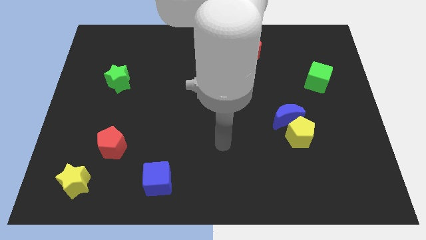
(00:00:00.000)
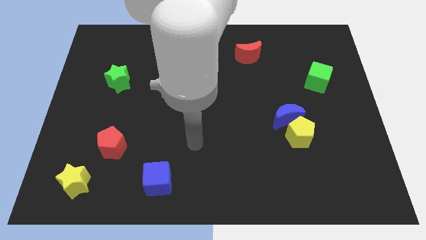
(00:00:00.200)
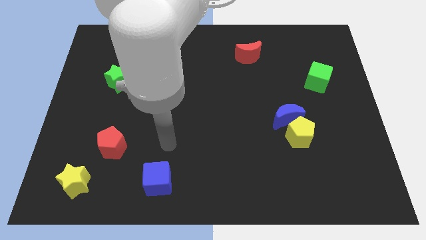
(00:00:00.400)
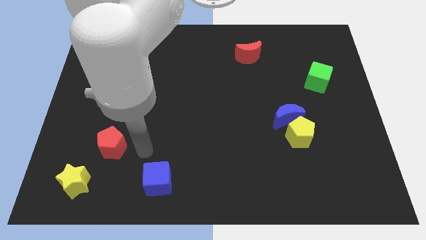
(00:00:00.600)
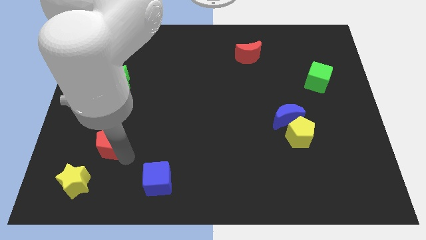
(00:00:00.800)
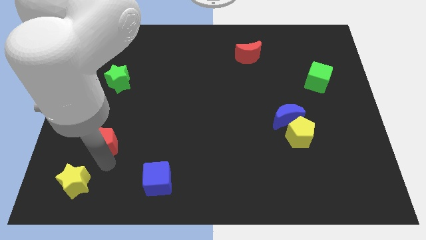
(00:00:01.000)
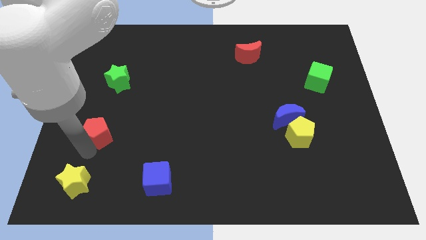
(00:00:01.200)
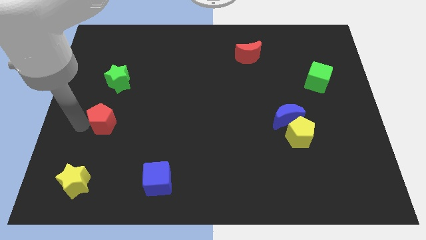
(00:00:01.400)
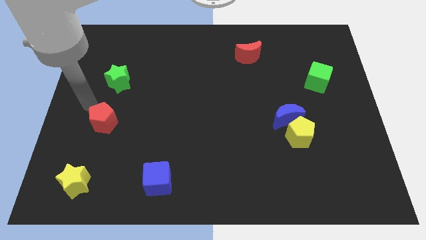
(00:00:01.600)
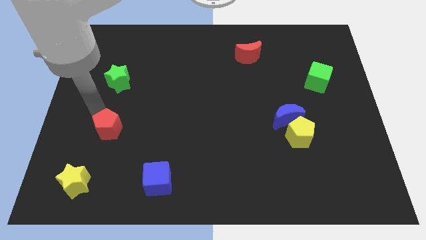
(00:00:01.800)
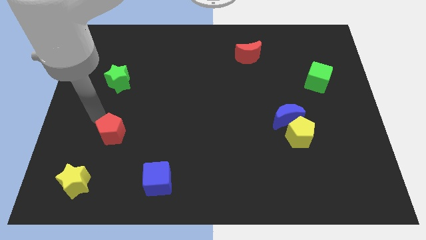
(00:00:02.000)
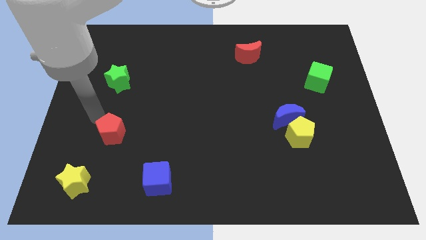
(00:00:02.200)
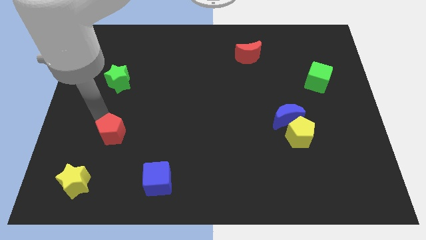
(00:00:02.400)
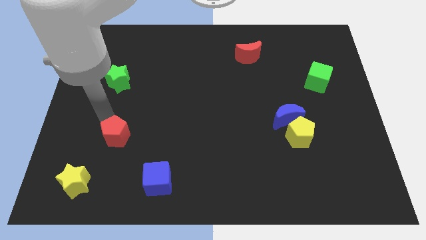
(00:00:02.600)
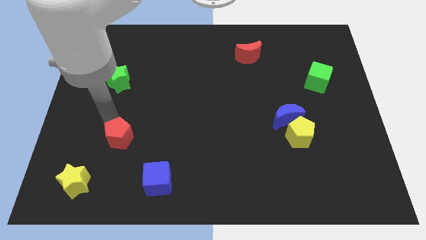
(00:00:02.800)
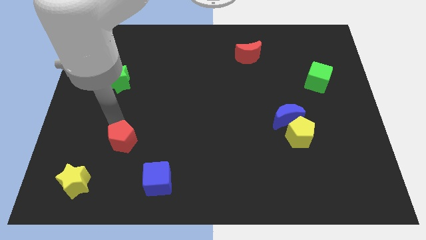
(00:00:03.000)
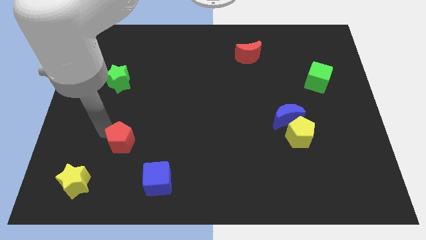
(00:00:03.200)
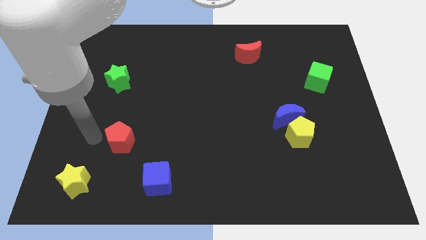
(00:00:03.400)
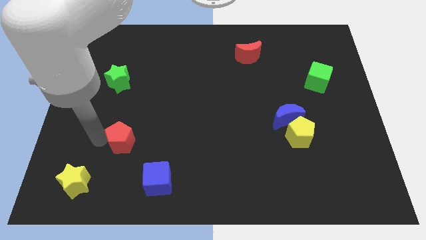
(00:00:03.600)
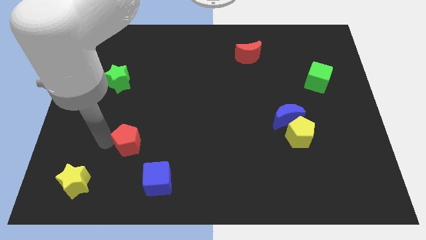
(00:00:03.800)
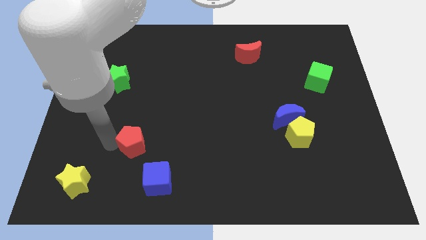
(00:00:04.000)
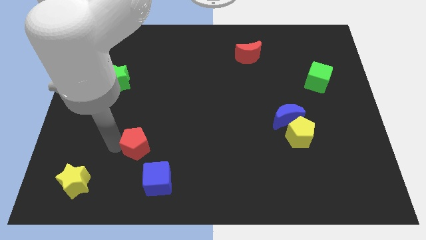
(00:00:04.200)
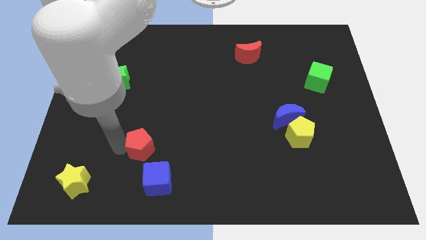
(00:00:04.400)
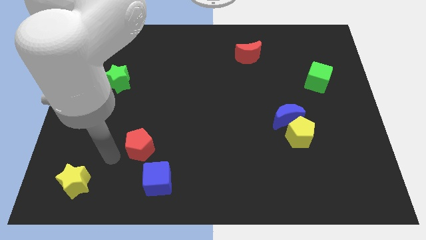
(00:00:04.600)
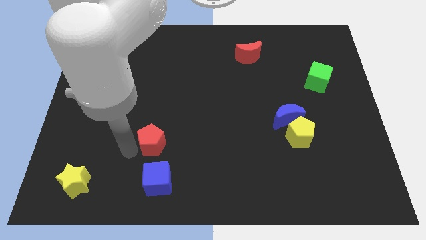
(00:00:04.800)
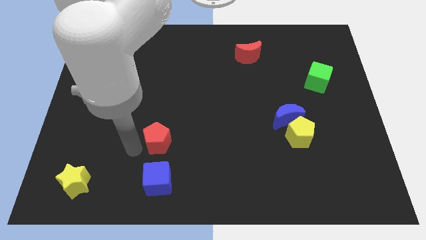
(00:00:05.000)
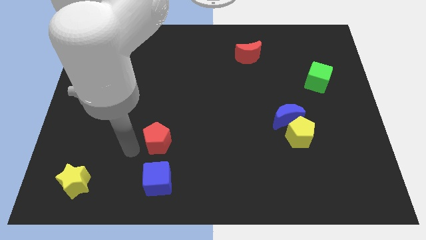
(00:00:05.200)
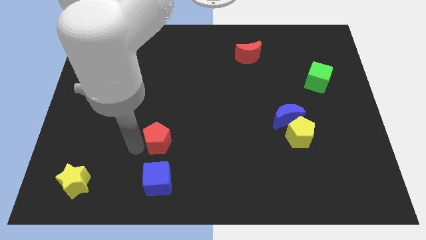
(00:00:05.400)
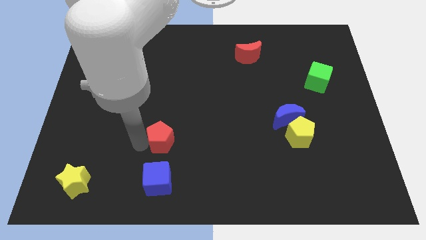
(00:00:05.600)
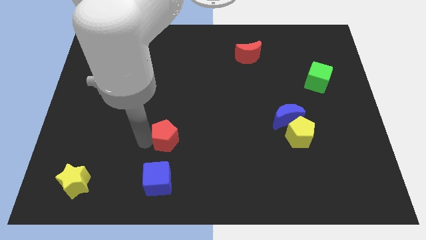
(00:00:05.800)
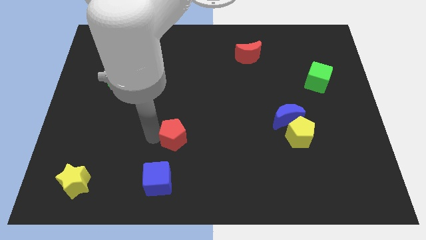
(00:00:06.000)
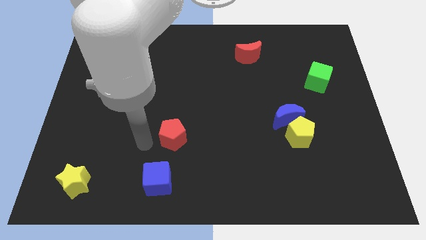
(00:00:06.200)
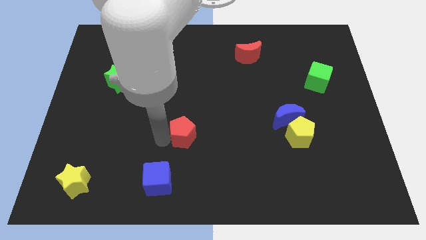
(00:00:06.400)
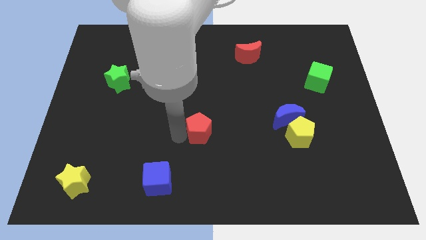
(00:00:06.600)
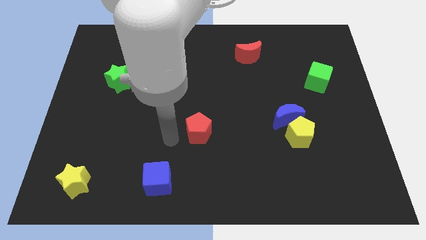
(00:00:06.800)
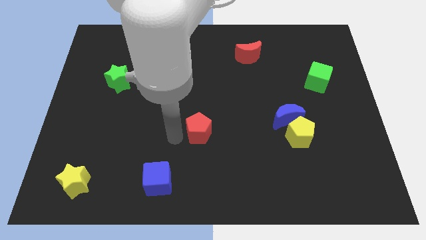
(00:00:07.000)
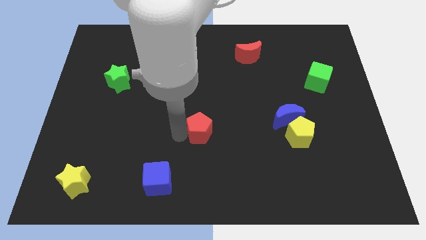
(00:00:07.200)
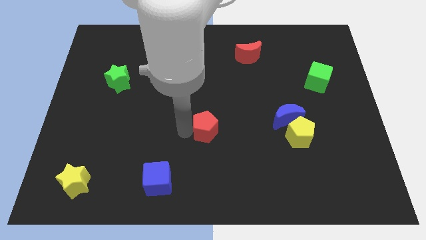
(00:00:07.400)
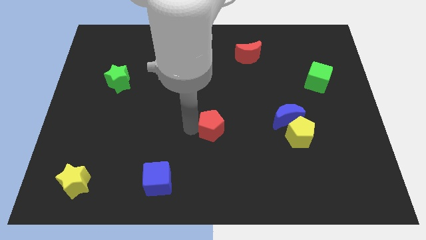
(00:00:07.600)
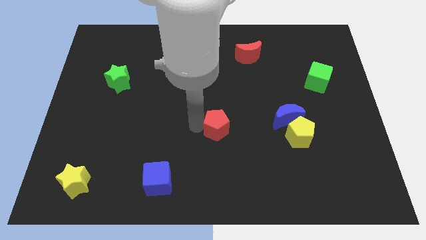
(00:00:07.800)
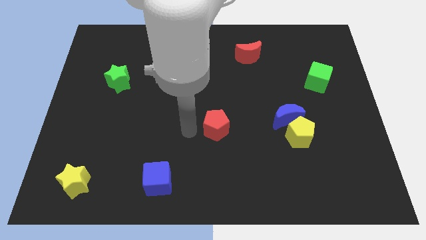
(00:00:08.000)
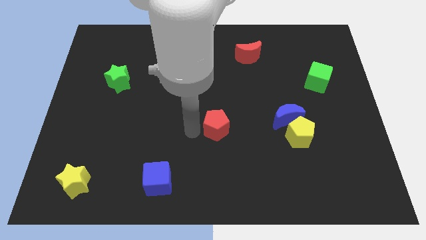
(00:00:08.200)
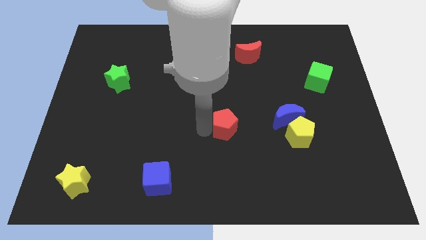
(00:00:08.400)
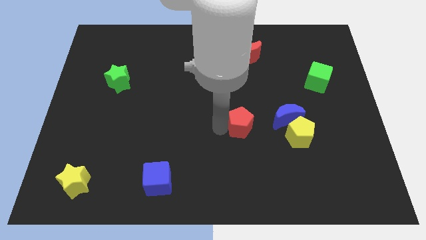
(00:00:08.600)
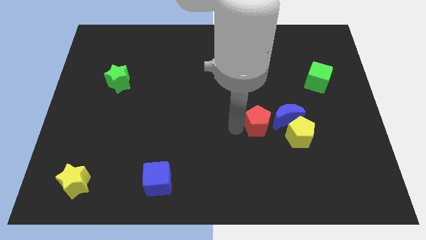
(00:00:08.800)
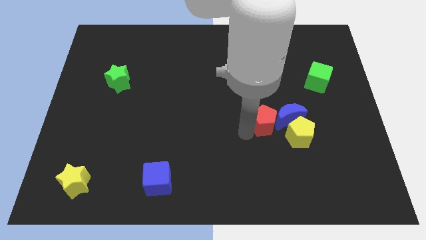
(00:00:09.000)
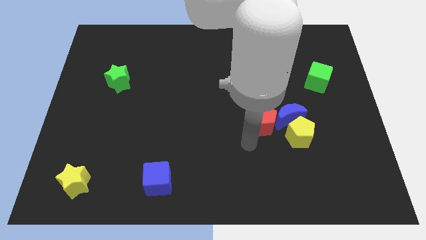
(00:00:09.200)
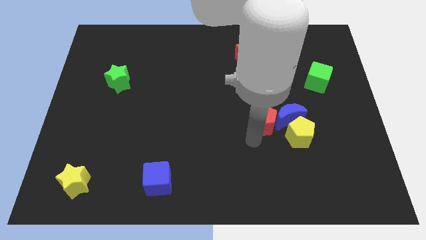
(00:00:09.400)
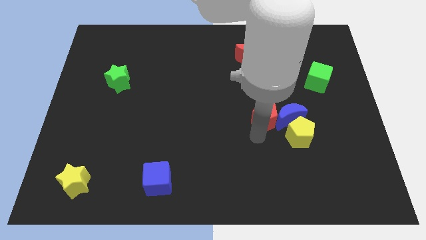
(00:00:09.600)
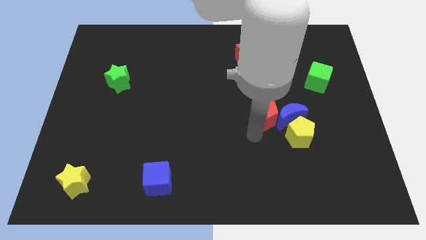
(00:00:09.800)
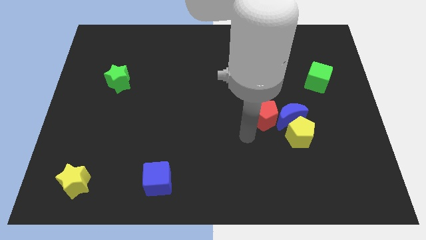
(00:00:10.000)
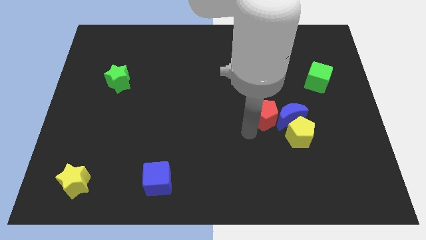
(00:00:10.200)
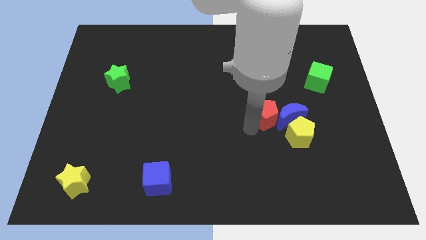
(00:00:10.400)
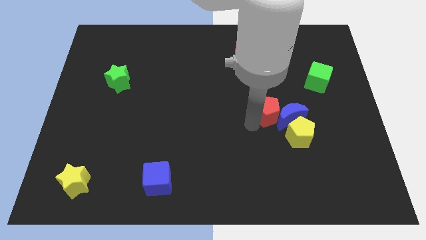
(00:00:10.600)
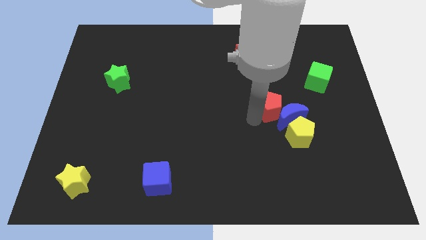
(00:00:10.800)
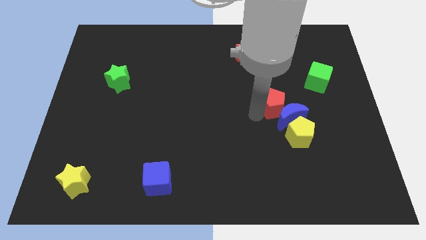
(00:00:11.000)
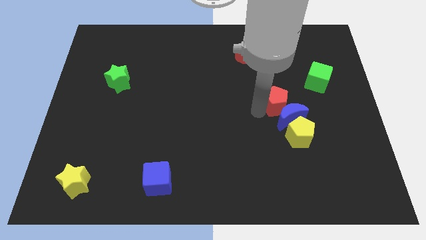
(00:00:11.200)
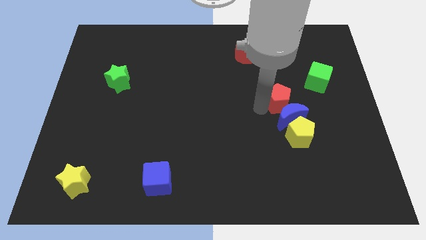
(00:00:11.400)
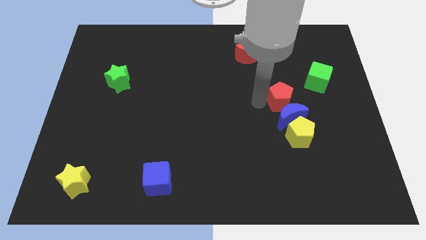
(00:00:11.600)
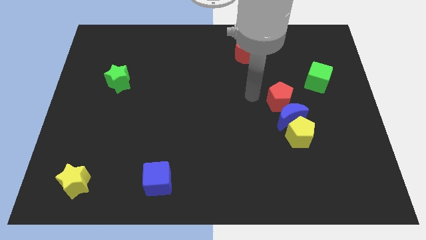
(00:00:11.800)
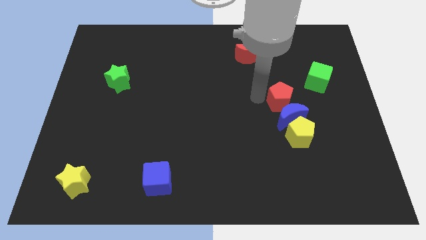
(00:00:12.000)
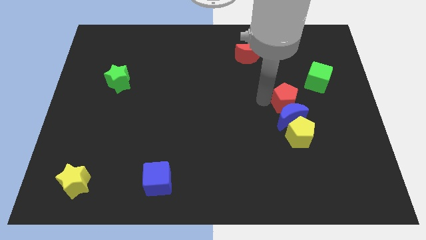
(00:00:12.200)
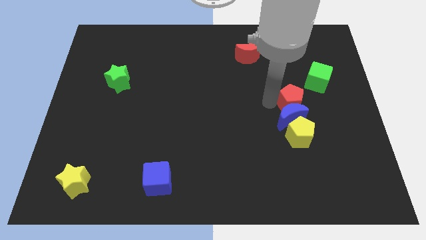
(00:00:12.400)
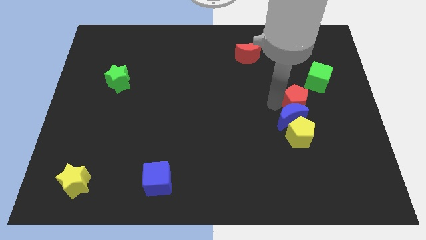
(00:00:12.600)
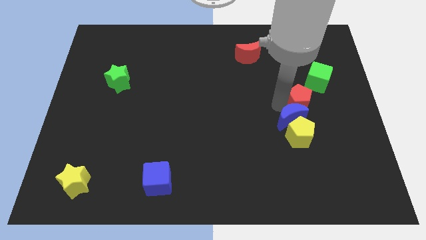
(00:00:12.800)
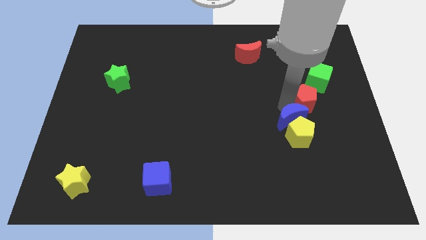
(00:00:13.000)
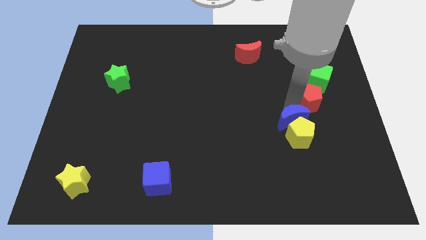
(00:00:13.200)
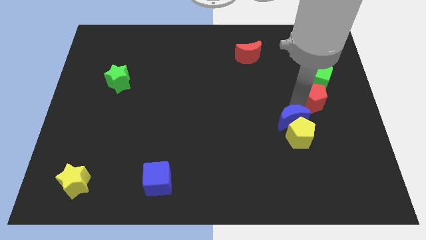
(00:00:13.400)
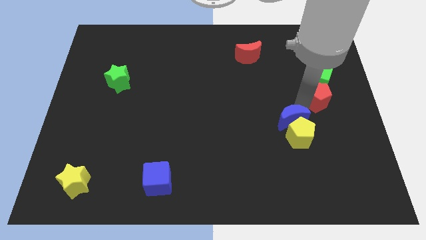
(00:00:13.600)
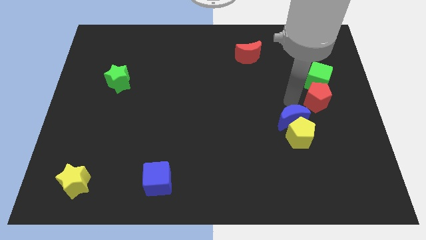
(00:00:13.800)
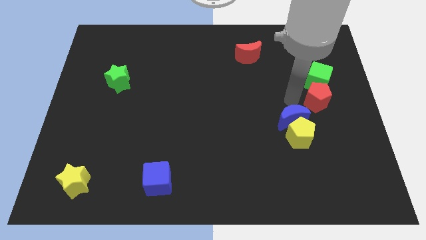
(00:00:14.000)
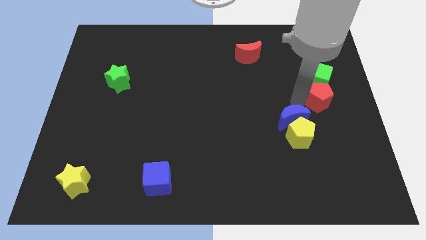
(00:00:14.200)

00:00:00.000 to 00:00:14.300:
slide the red pentagon to the right side of the board
